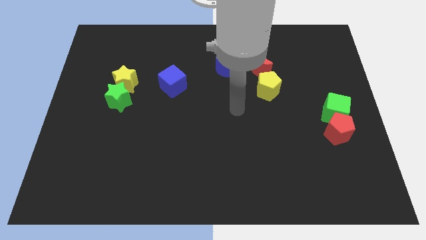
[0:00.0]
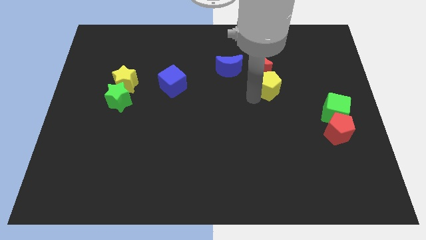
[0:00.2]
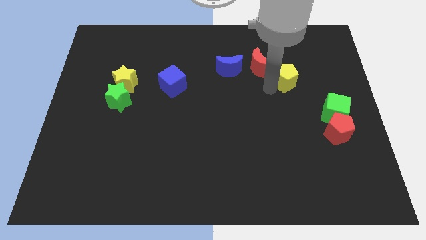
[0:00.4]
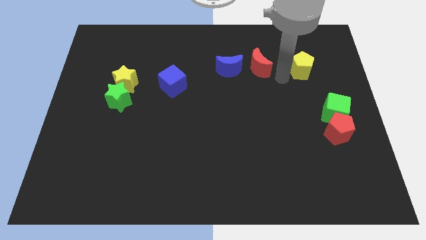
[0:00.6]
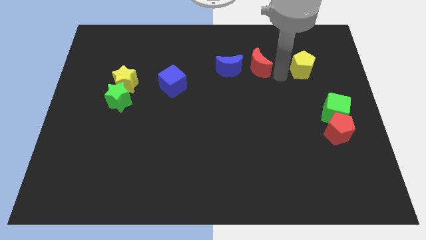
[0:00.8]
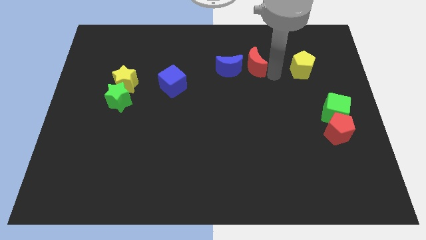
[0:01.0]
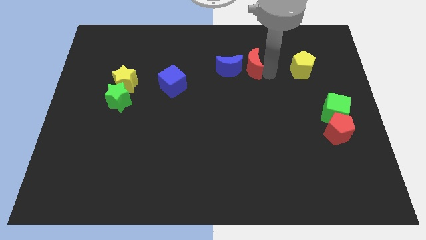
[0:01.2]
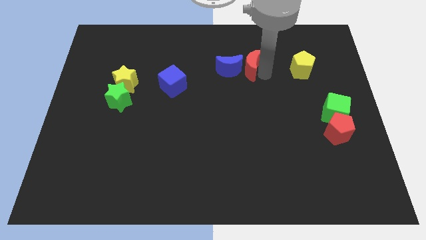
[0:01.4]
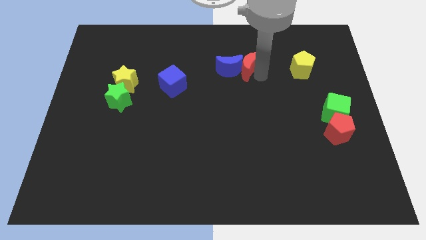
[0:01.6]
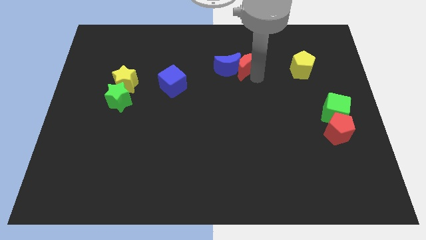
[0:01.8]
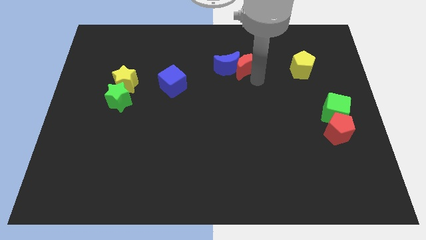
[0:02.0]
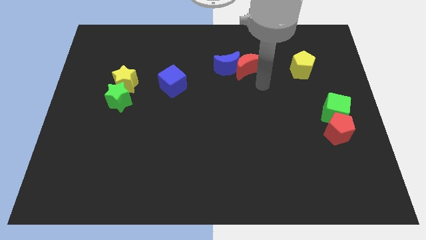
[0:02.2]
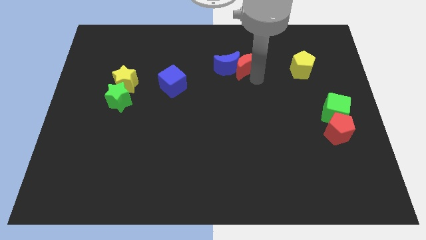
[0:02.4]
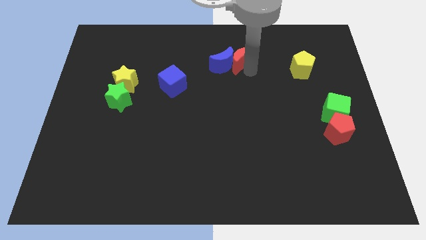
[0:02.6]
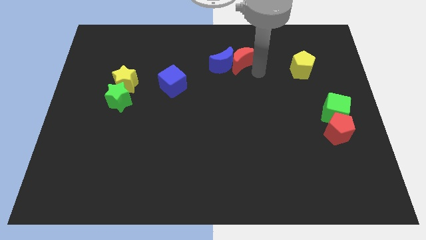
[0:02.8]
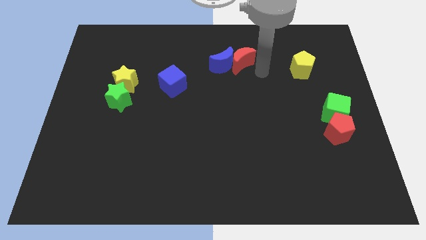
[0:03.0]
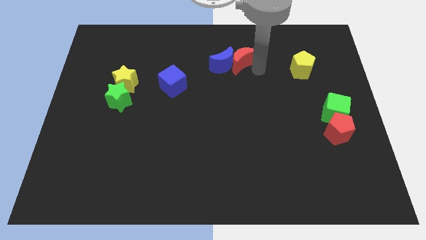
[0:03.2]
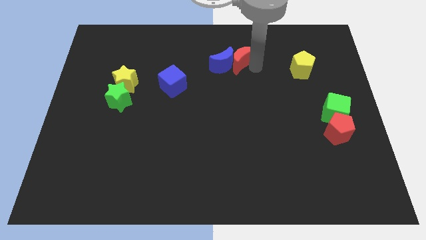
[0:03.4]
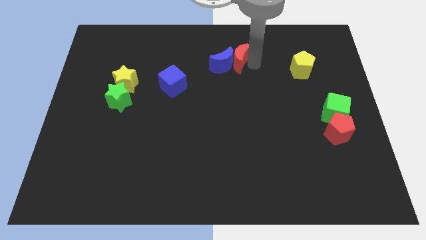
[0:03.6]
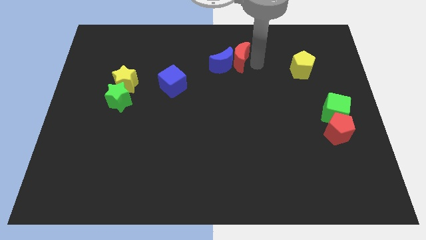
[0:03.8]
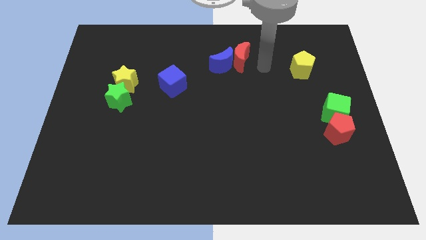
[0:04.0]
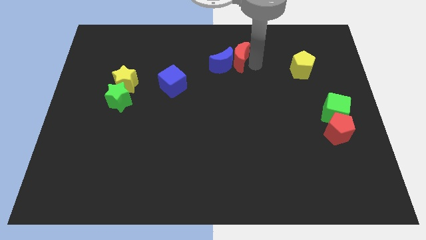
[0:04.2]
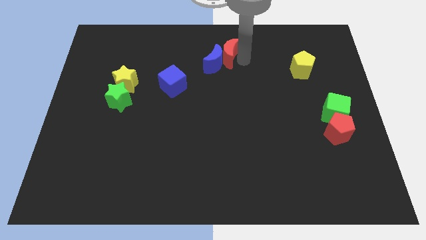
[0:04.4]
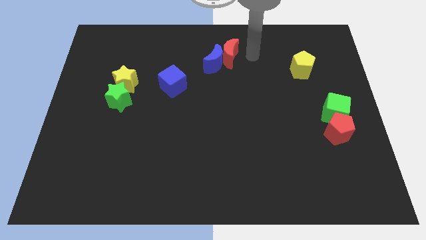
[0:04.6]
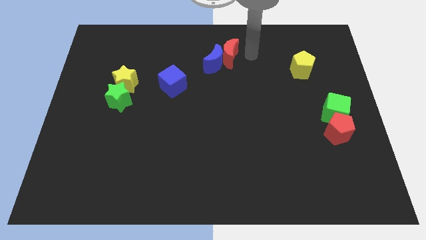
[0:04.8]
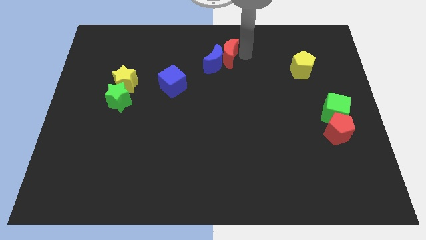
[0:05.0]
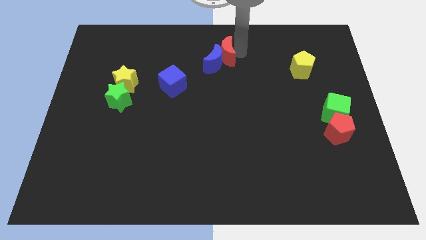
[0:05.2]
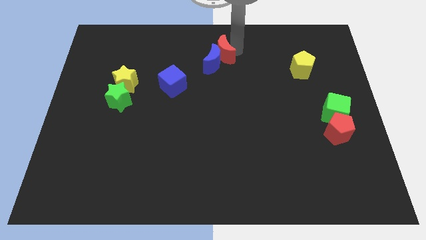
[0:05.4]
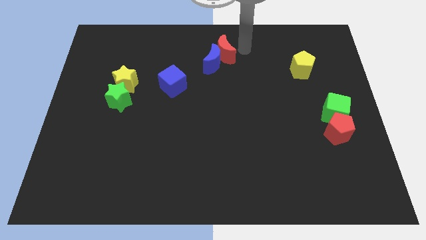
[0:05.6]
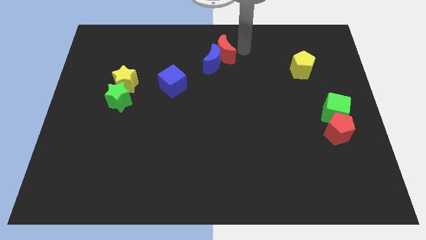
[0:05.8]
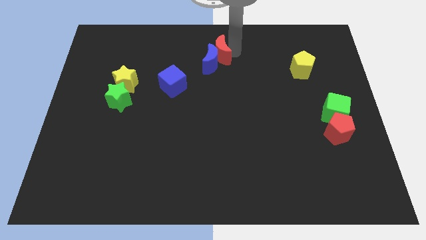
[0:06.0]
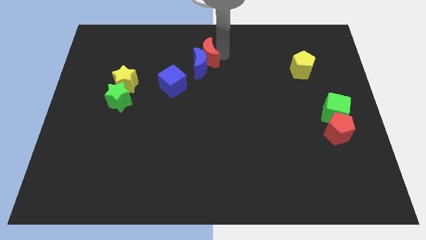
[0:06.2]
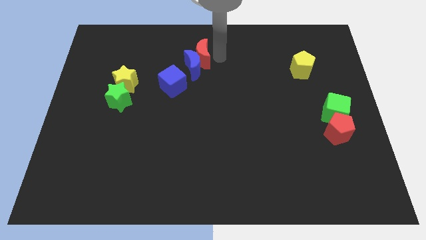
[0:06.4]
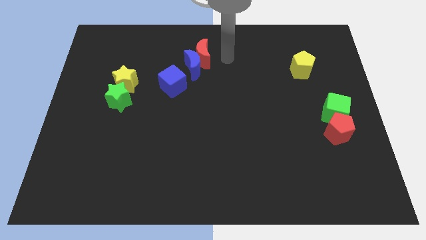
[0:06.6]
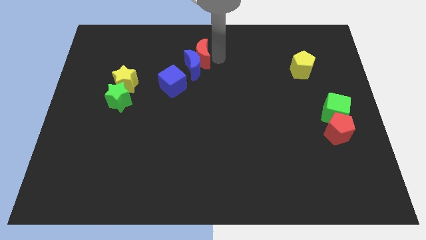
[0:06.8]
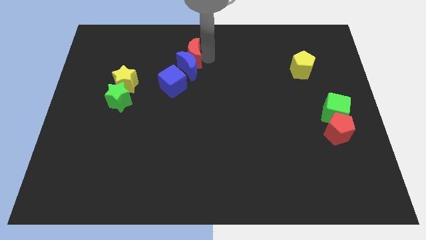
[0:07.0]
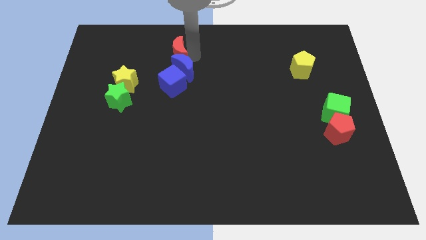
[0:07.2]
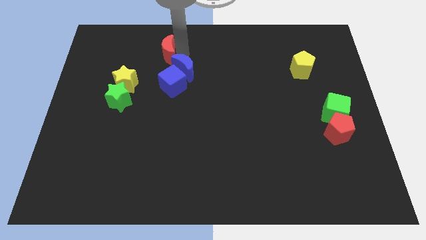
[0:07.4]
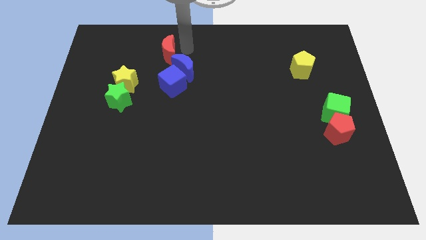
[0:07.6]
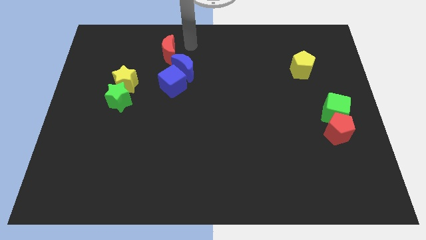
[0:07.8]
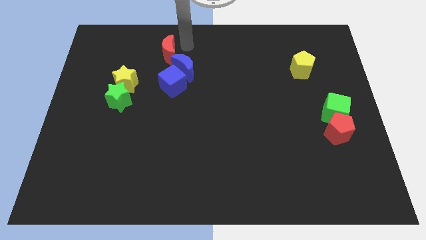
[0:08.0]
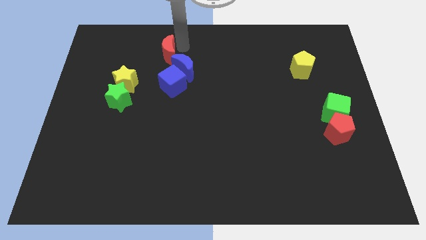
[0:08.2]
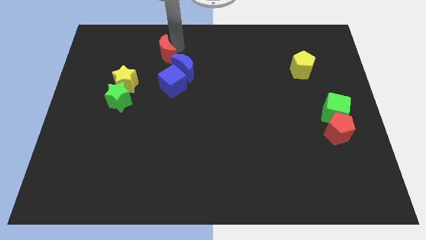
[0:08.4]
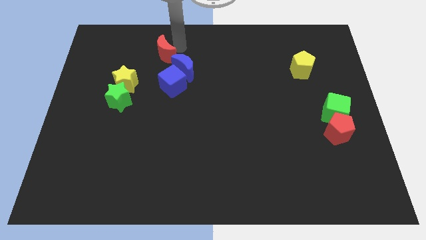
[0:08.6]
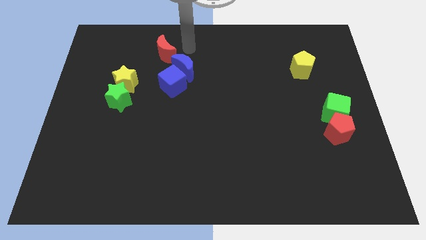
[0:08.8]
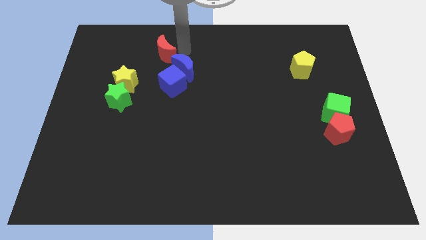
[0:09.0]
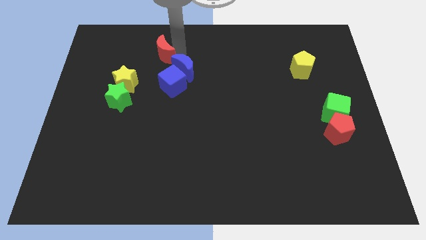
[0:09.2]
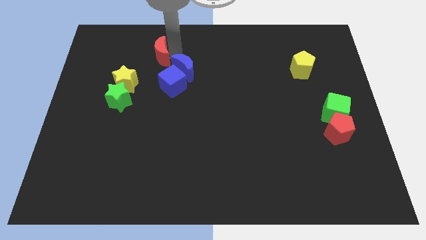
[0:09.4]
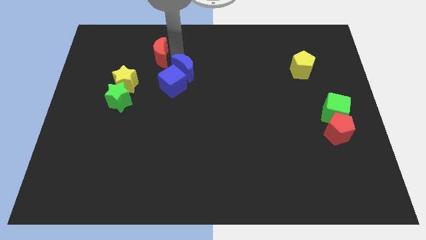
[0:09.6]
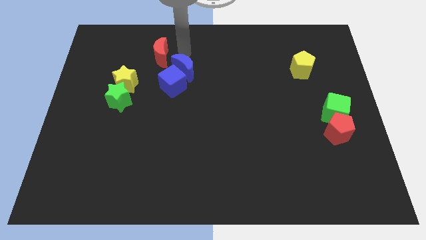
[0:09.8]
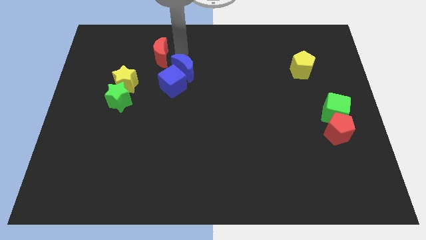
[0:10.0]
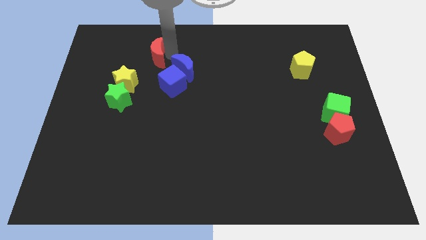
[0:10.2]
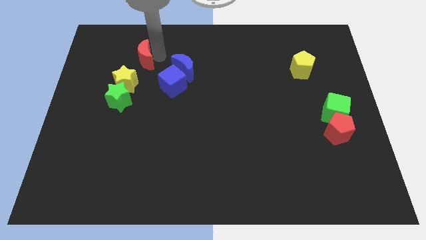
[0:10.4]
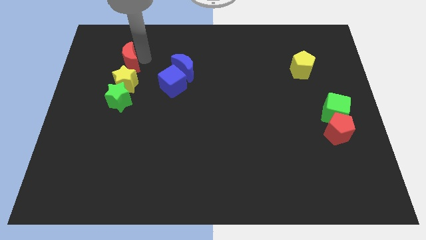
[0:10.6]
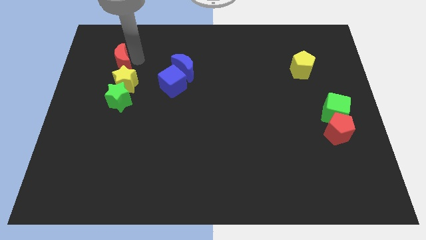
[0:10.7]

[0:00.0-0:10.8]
slide the red moon to the top left of the yellow star
